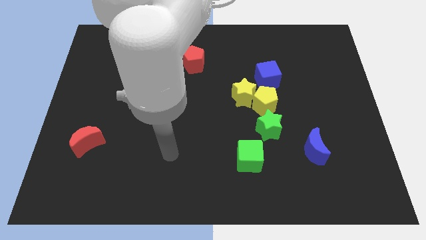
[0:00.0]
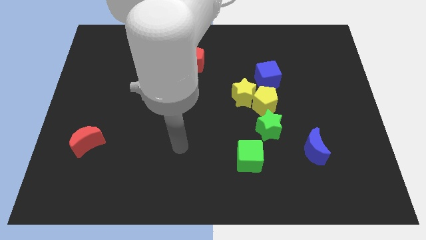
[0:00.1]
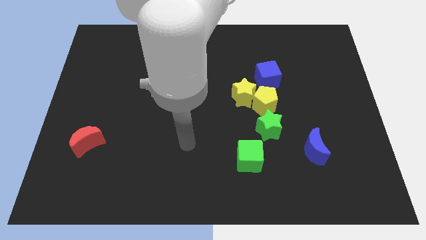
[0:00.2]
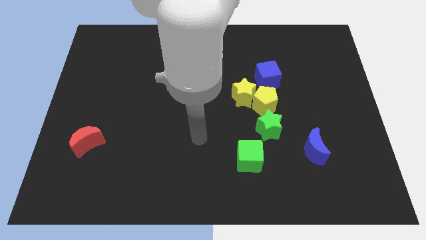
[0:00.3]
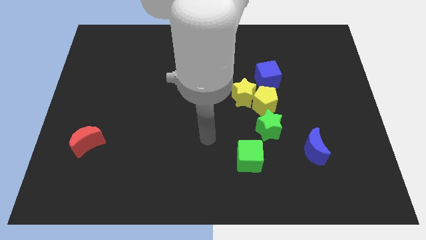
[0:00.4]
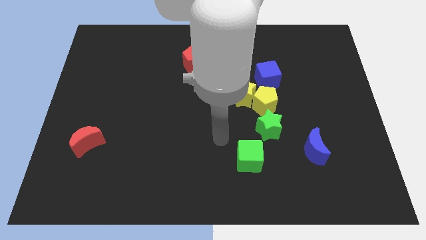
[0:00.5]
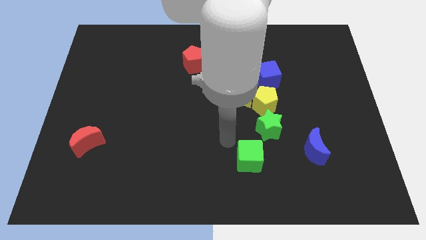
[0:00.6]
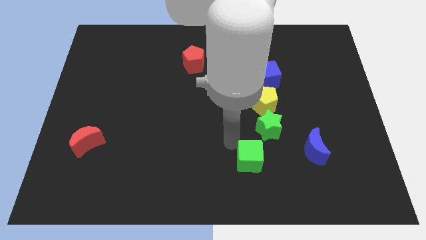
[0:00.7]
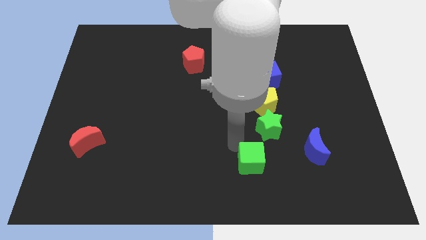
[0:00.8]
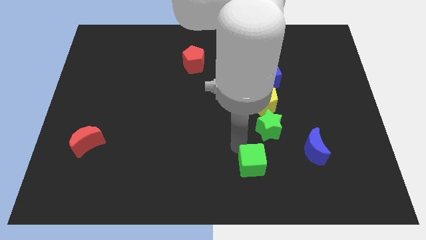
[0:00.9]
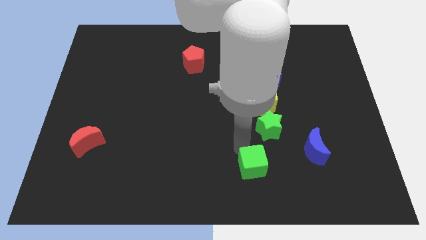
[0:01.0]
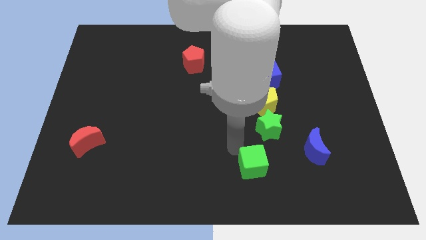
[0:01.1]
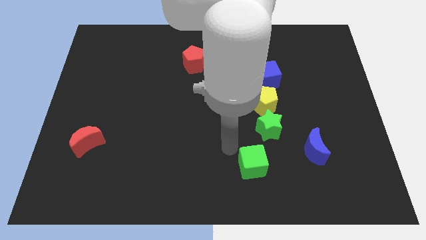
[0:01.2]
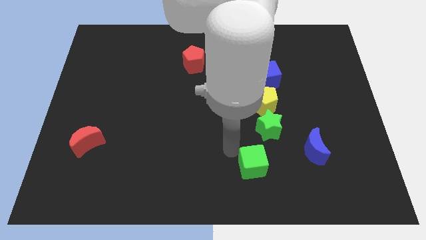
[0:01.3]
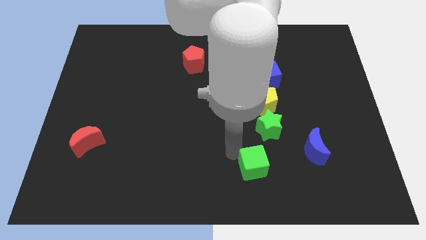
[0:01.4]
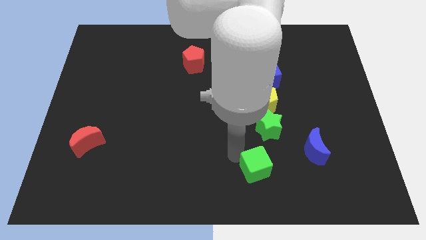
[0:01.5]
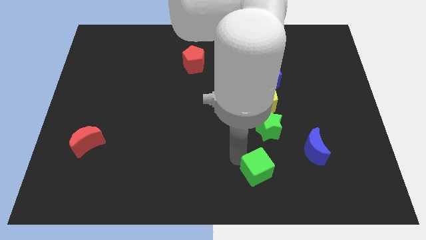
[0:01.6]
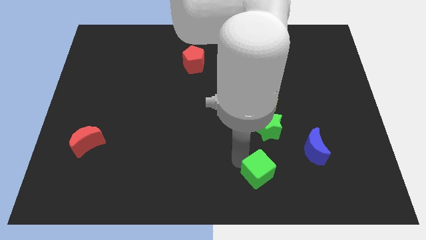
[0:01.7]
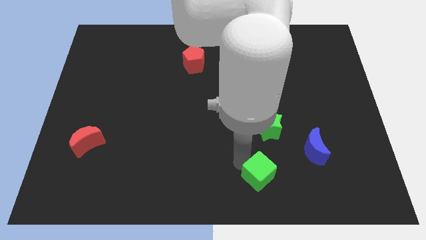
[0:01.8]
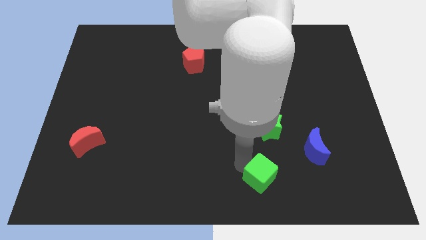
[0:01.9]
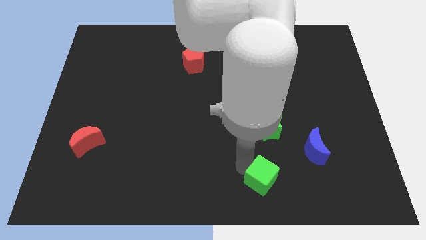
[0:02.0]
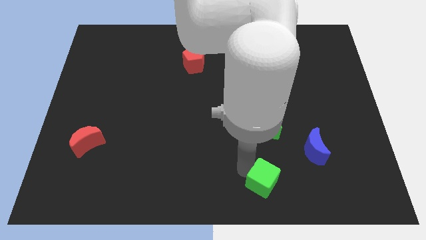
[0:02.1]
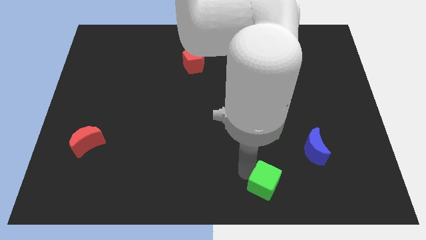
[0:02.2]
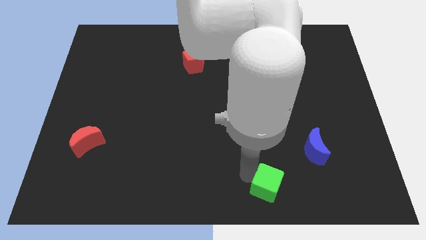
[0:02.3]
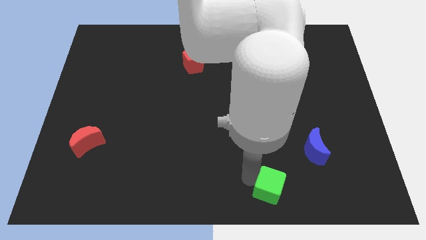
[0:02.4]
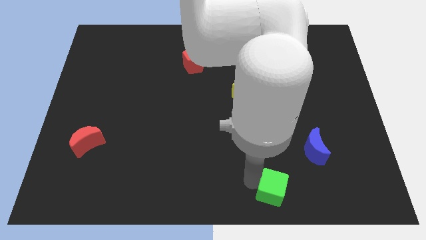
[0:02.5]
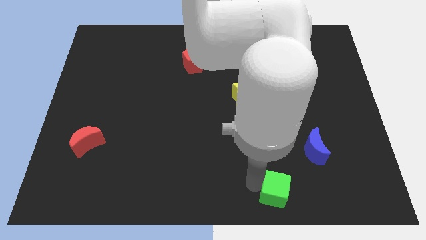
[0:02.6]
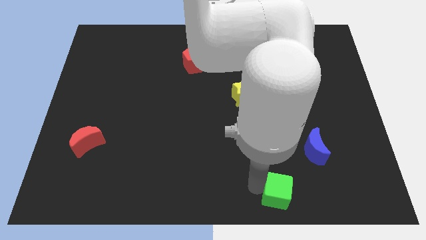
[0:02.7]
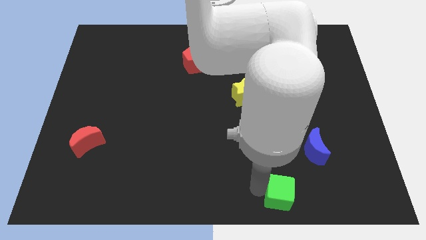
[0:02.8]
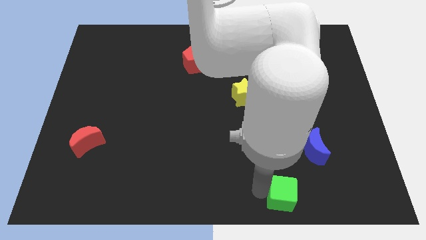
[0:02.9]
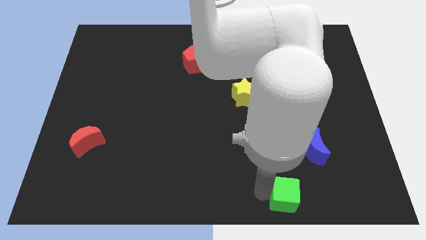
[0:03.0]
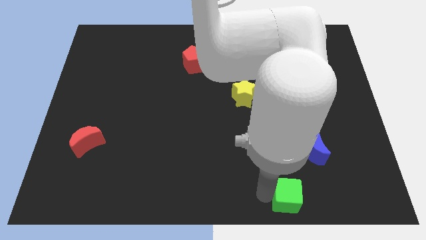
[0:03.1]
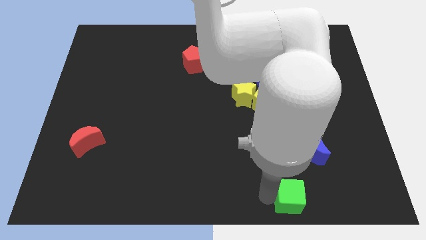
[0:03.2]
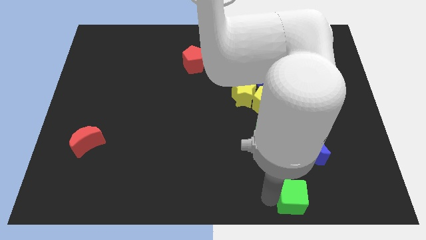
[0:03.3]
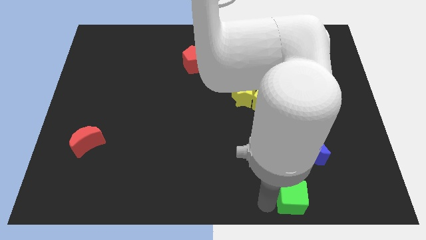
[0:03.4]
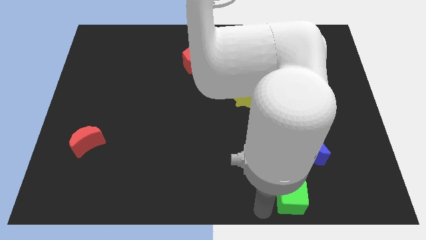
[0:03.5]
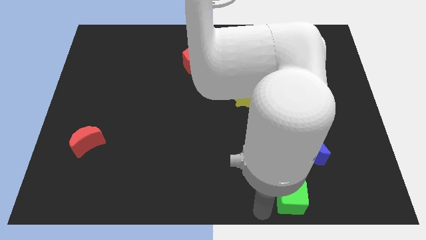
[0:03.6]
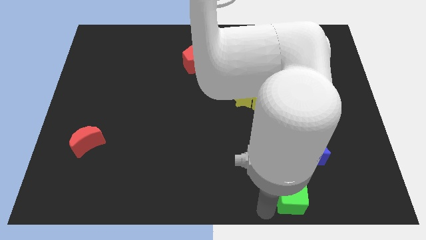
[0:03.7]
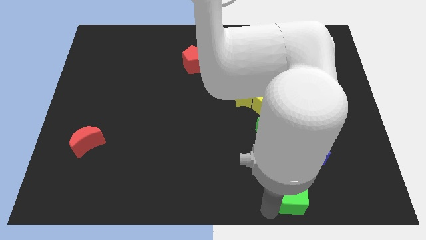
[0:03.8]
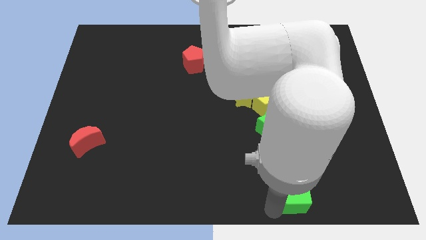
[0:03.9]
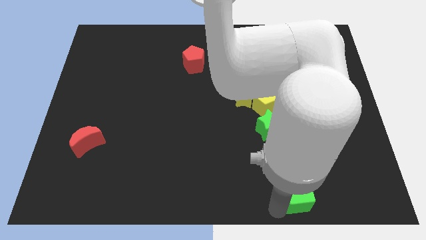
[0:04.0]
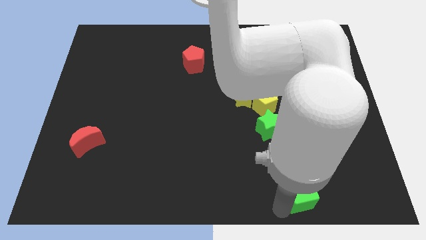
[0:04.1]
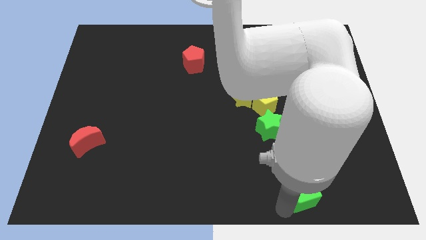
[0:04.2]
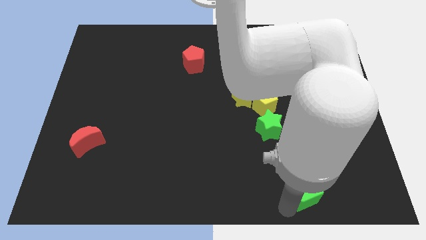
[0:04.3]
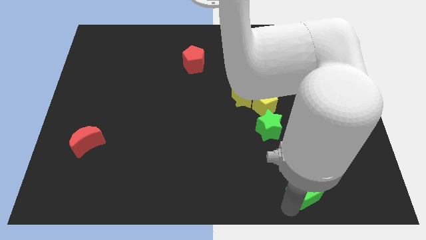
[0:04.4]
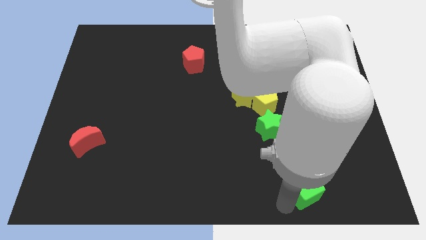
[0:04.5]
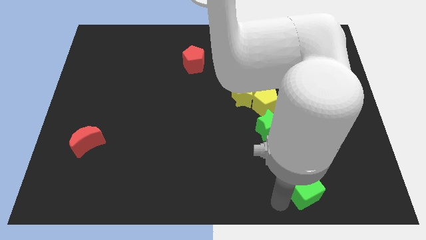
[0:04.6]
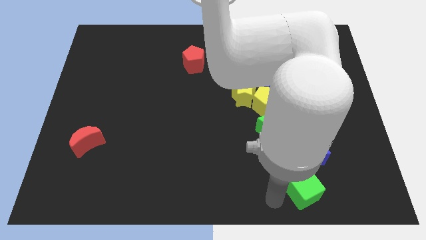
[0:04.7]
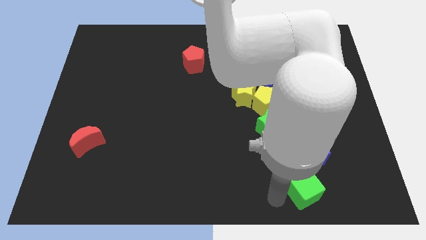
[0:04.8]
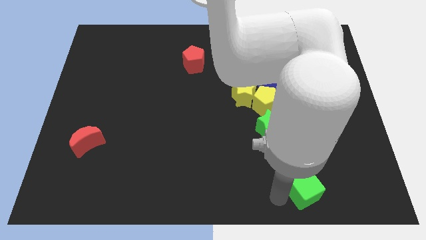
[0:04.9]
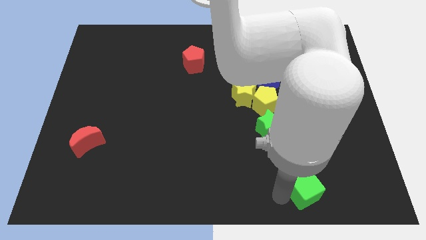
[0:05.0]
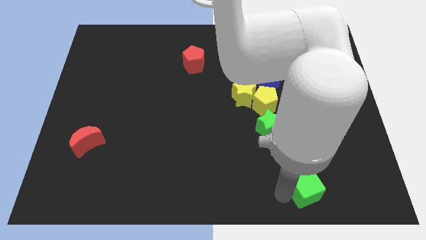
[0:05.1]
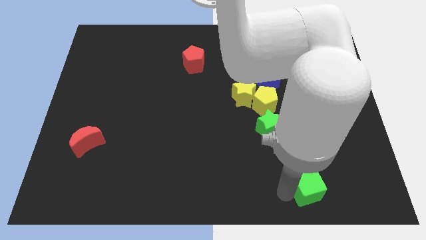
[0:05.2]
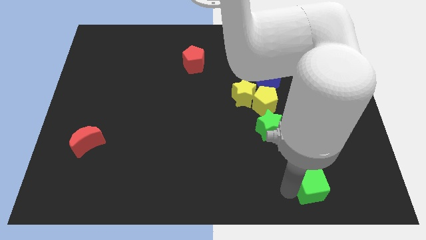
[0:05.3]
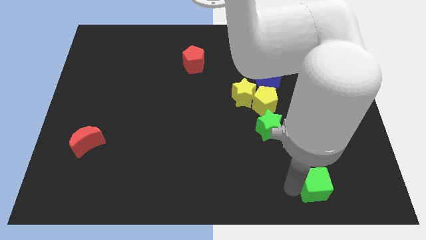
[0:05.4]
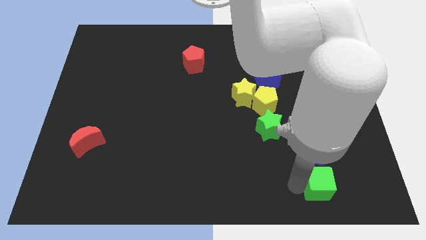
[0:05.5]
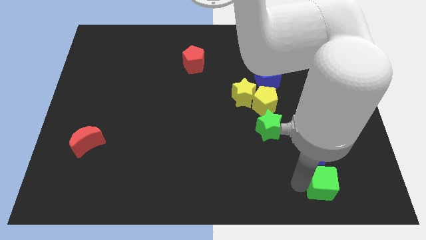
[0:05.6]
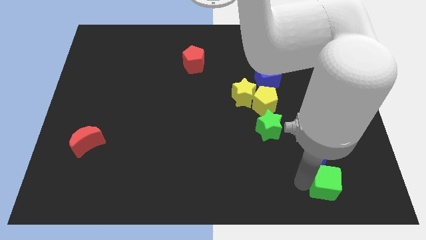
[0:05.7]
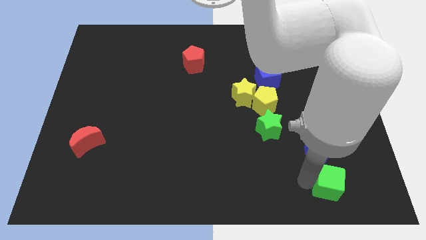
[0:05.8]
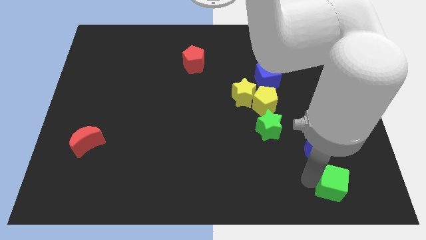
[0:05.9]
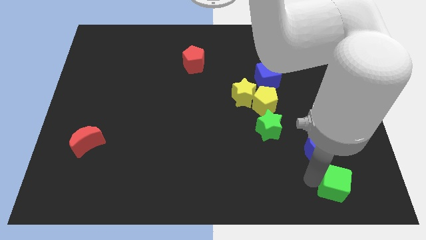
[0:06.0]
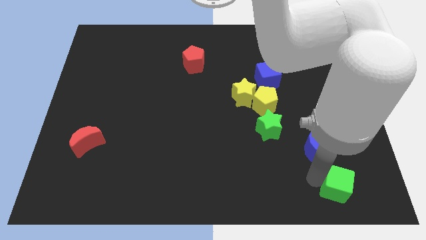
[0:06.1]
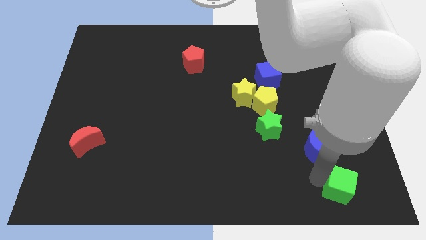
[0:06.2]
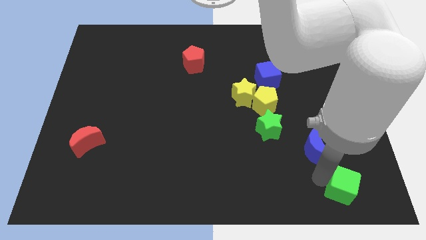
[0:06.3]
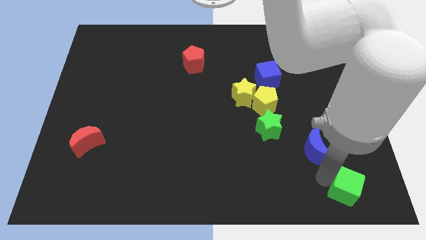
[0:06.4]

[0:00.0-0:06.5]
move the green cube to the bottom right
